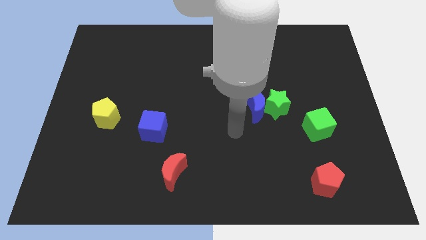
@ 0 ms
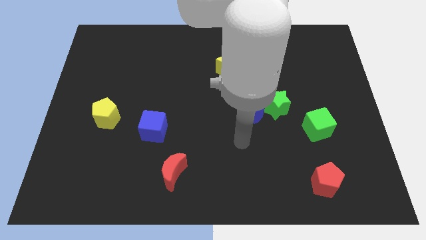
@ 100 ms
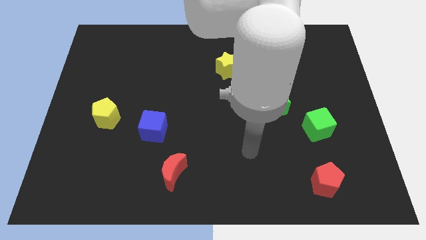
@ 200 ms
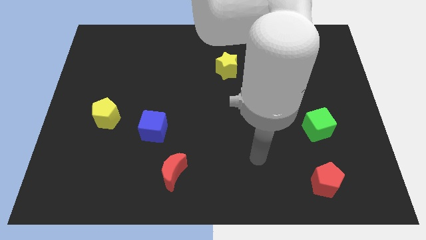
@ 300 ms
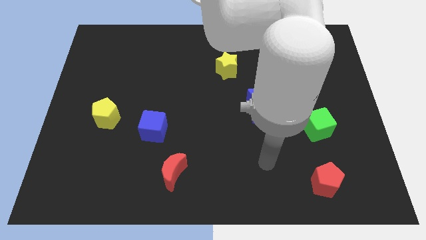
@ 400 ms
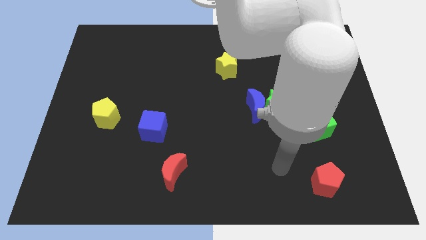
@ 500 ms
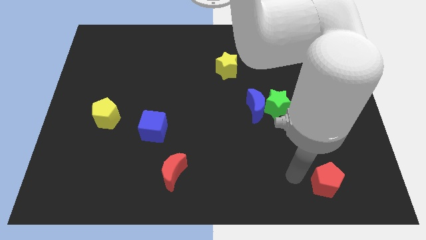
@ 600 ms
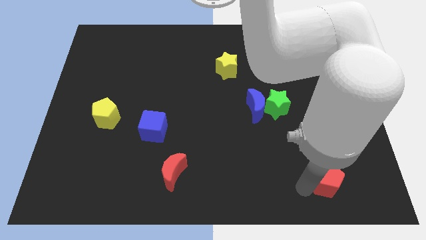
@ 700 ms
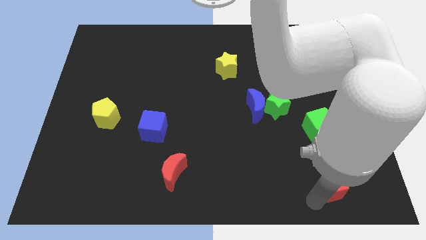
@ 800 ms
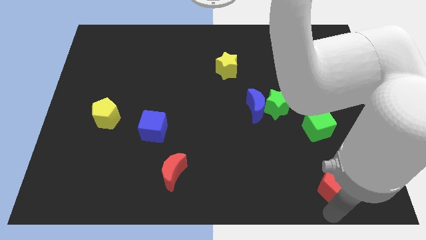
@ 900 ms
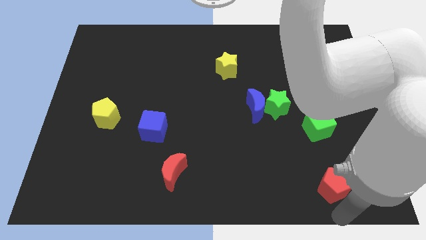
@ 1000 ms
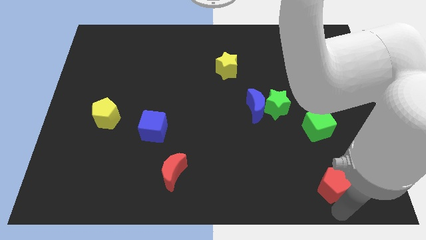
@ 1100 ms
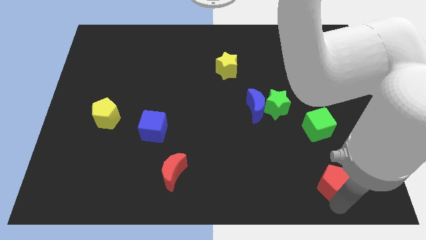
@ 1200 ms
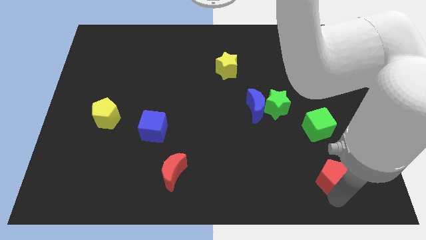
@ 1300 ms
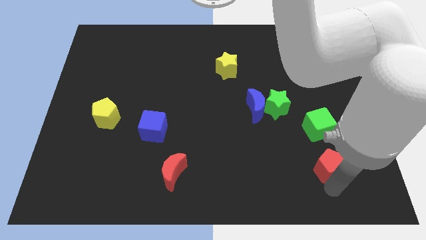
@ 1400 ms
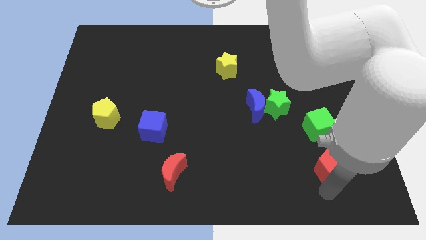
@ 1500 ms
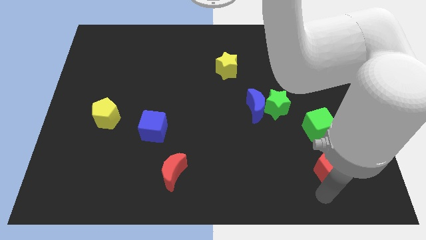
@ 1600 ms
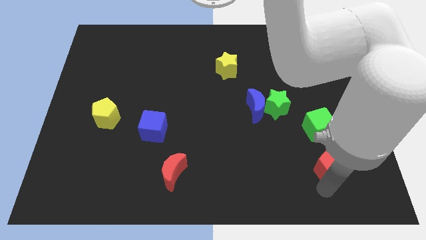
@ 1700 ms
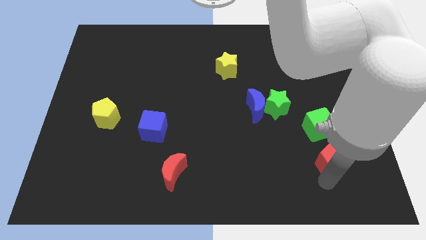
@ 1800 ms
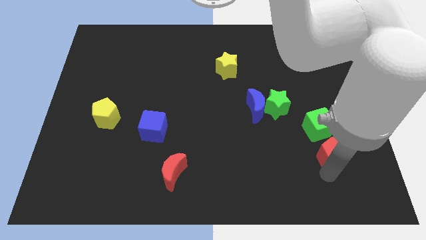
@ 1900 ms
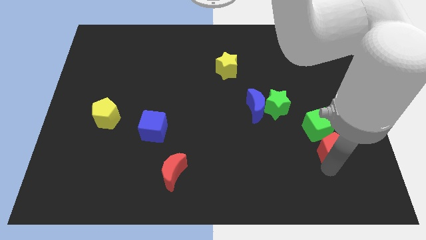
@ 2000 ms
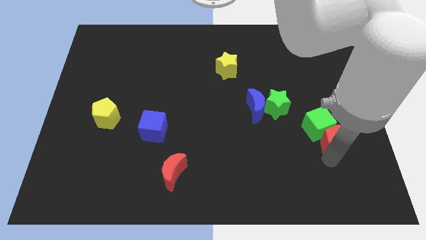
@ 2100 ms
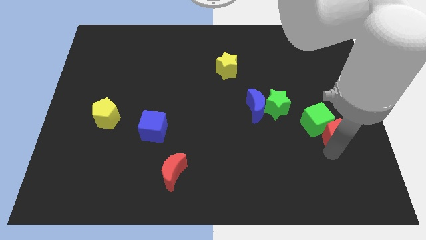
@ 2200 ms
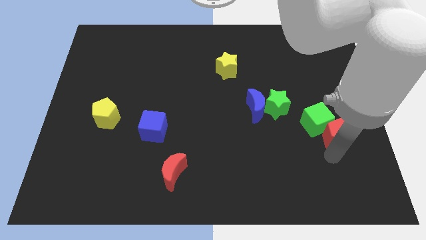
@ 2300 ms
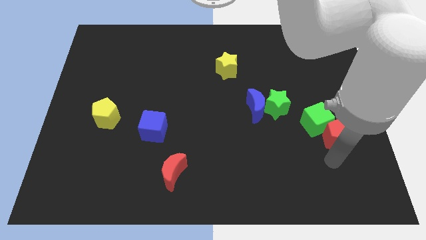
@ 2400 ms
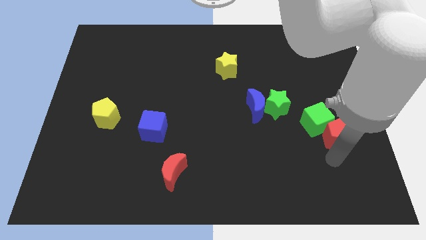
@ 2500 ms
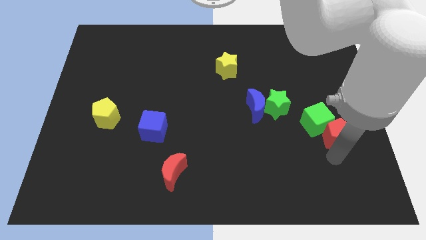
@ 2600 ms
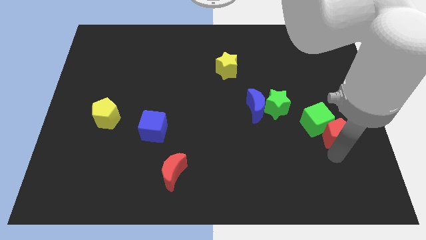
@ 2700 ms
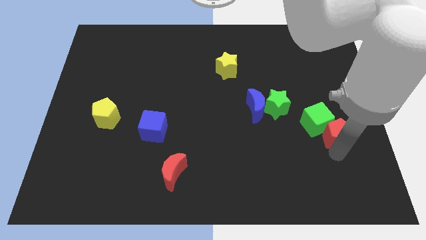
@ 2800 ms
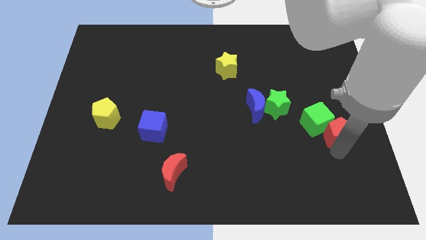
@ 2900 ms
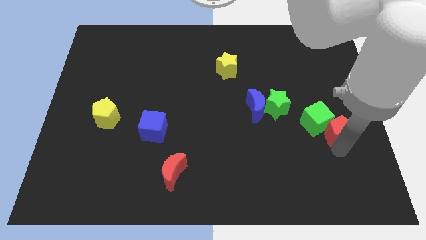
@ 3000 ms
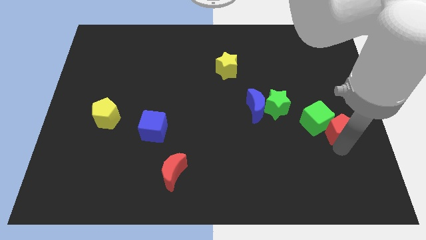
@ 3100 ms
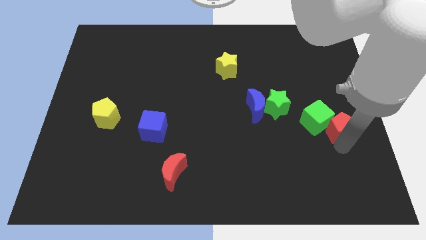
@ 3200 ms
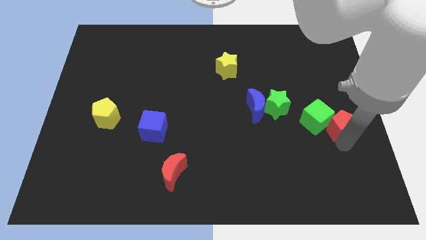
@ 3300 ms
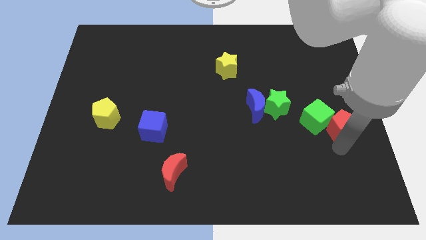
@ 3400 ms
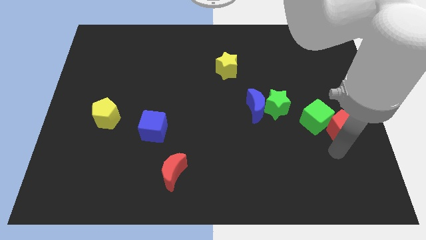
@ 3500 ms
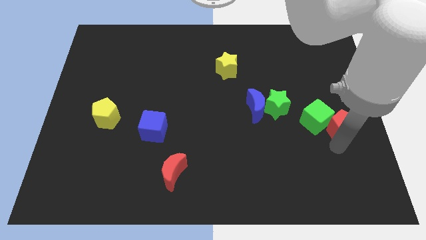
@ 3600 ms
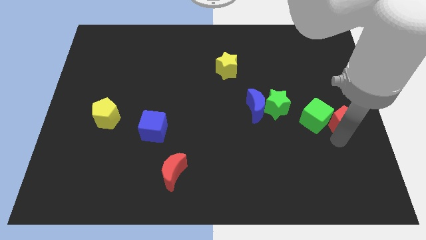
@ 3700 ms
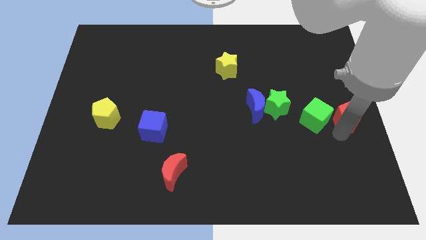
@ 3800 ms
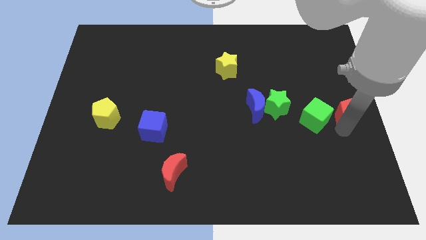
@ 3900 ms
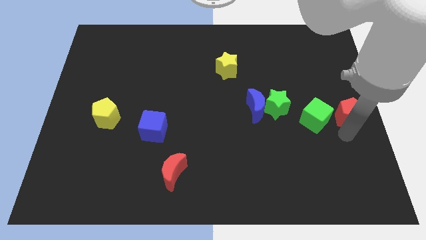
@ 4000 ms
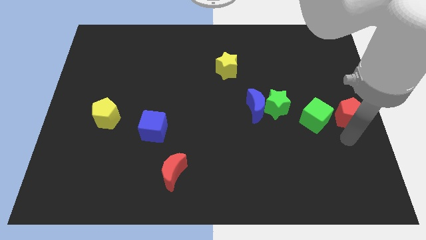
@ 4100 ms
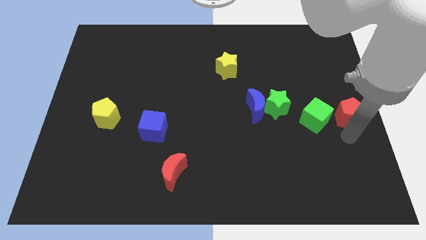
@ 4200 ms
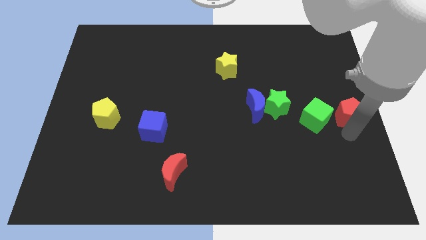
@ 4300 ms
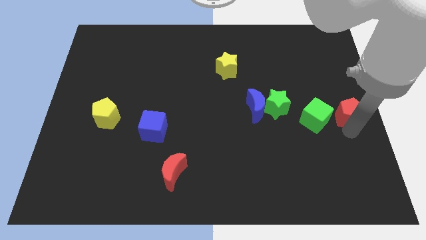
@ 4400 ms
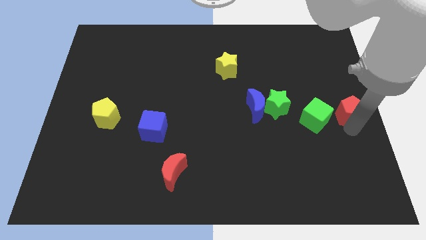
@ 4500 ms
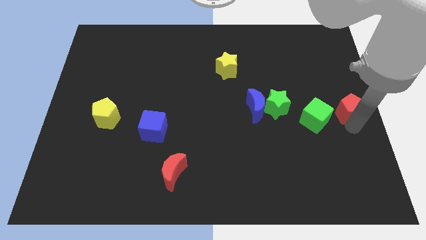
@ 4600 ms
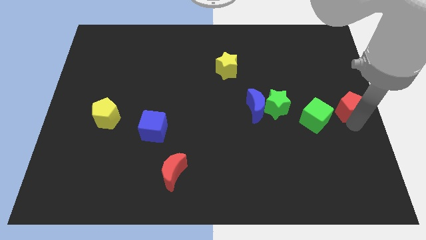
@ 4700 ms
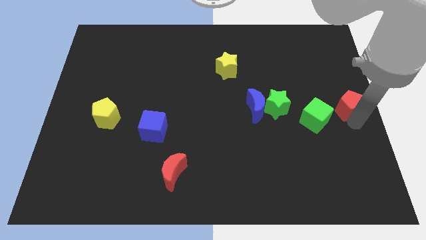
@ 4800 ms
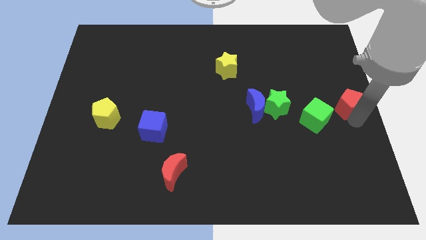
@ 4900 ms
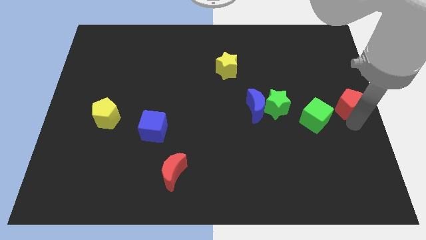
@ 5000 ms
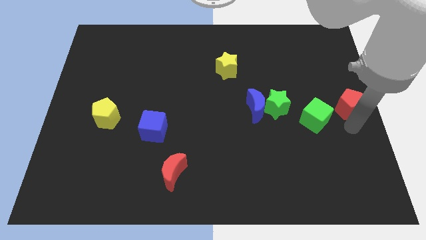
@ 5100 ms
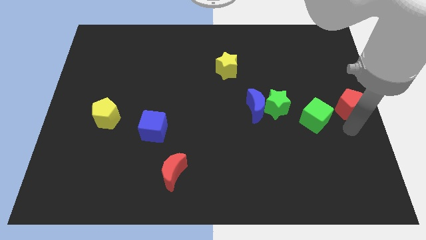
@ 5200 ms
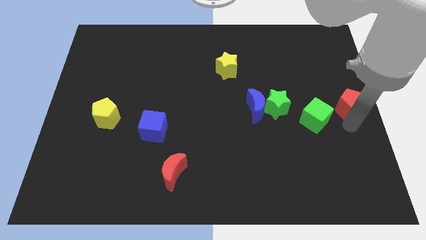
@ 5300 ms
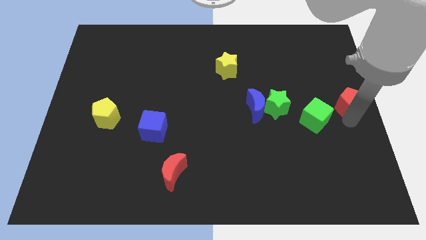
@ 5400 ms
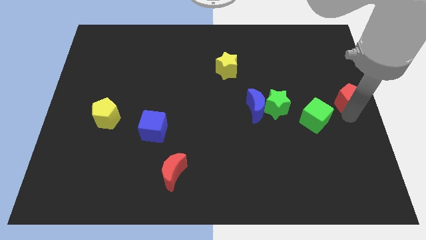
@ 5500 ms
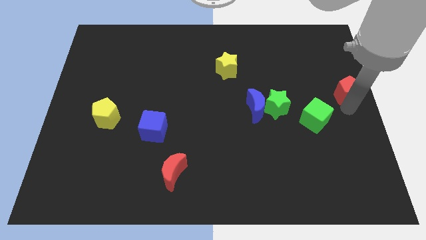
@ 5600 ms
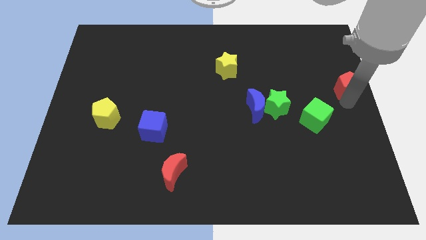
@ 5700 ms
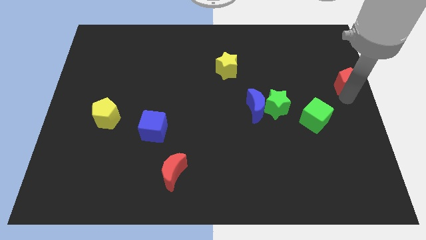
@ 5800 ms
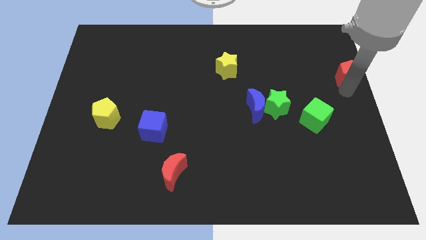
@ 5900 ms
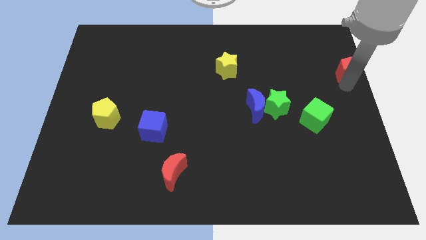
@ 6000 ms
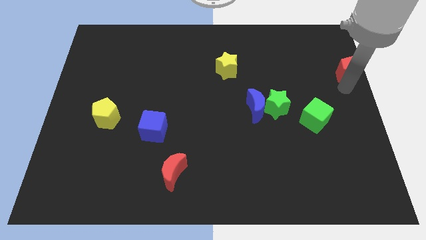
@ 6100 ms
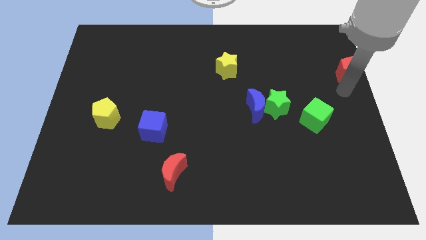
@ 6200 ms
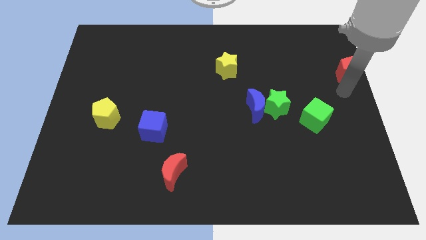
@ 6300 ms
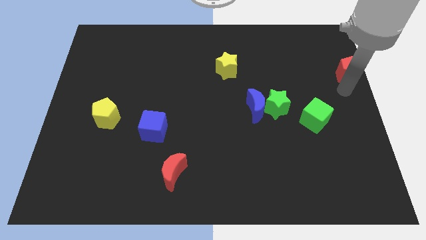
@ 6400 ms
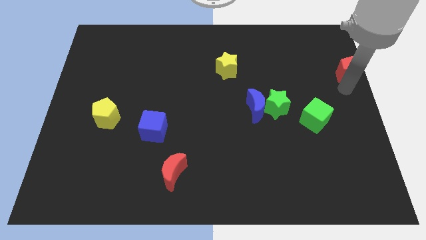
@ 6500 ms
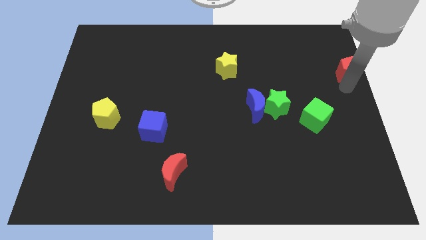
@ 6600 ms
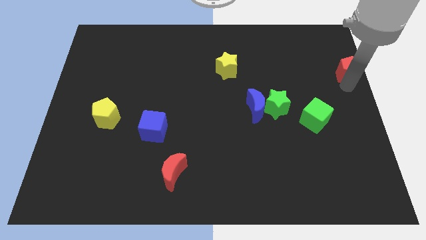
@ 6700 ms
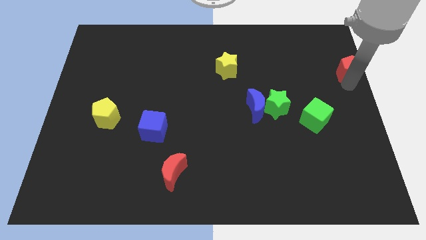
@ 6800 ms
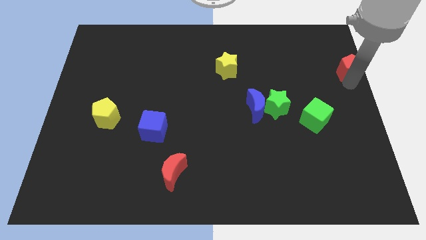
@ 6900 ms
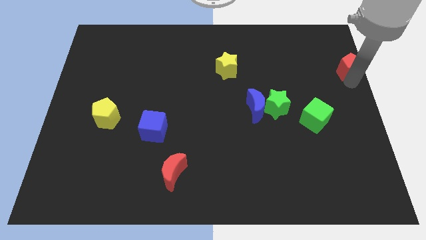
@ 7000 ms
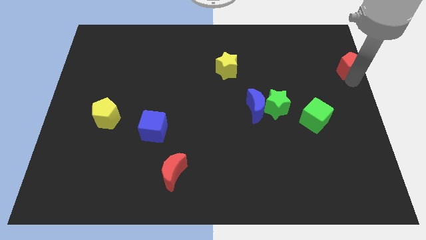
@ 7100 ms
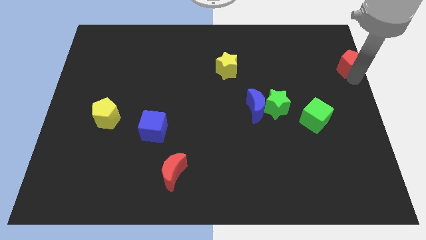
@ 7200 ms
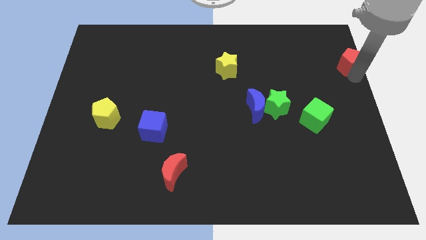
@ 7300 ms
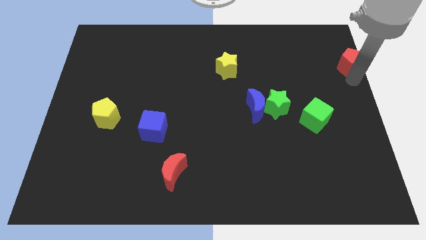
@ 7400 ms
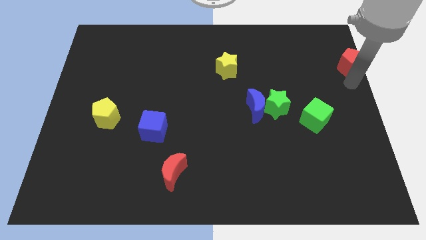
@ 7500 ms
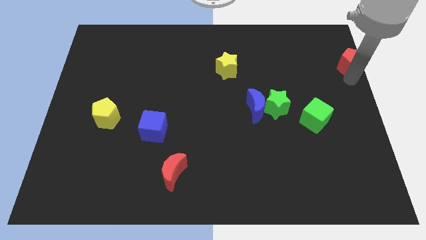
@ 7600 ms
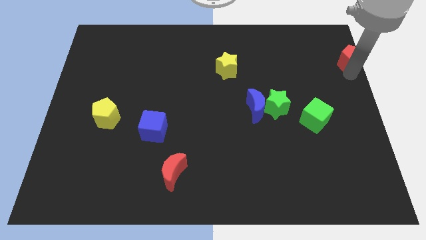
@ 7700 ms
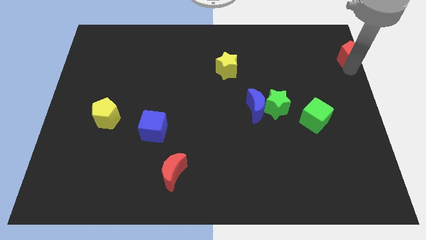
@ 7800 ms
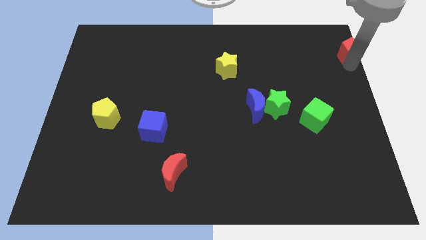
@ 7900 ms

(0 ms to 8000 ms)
push the red pentagon to the top right
